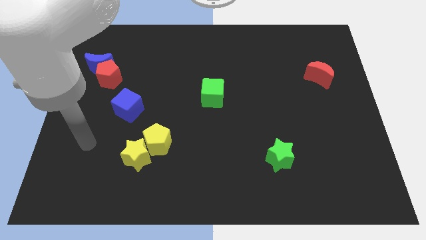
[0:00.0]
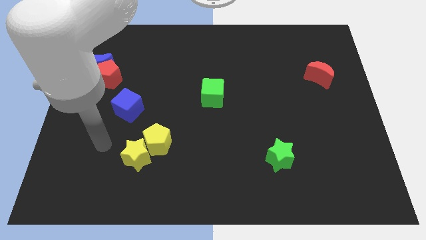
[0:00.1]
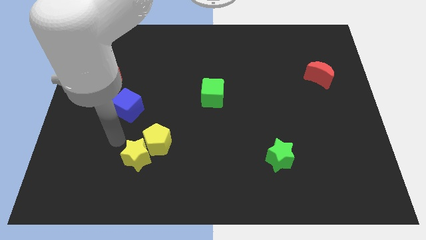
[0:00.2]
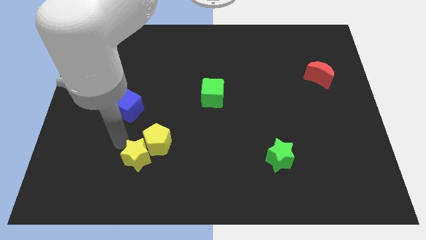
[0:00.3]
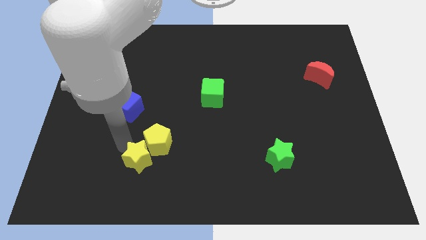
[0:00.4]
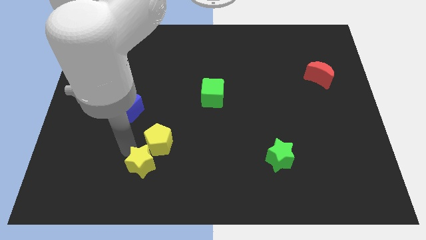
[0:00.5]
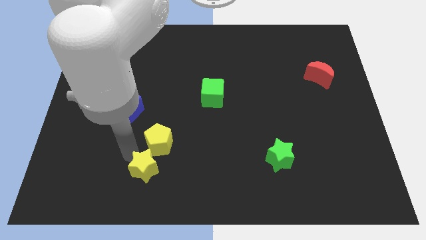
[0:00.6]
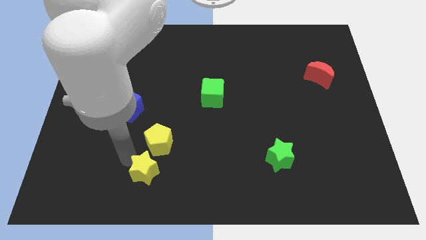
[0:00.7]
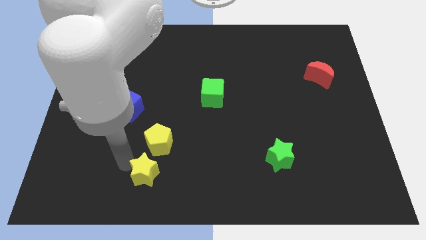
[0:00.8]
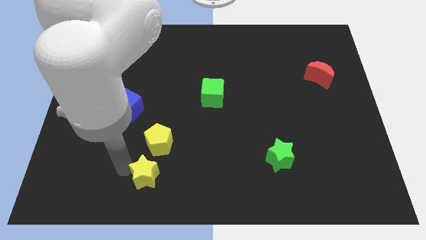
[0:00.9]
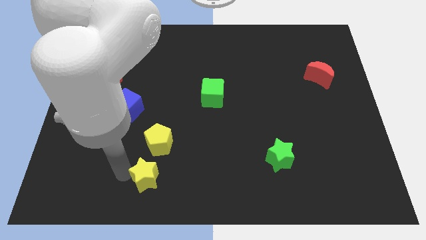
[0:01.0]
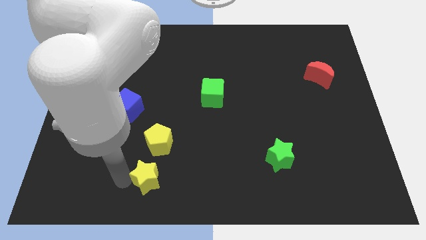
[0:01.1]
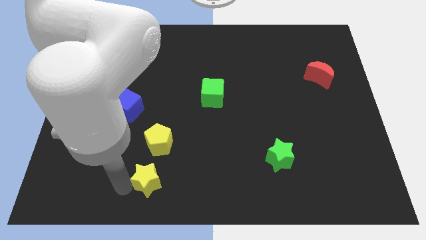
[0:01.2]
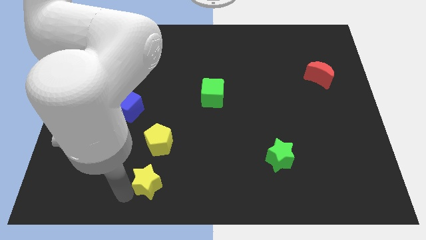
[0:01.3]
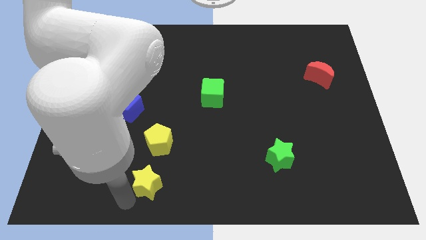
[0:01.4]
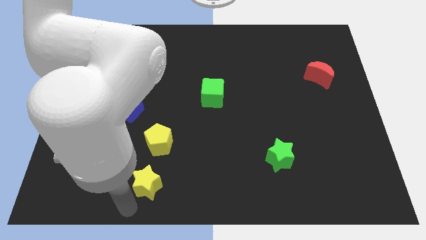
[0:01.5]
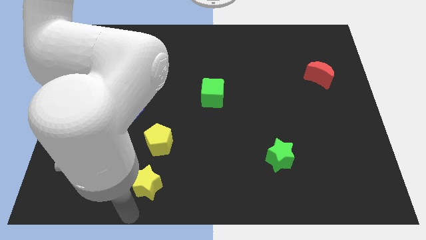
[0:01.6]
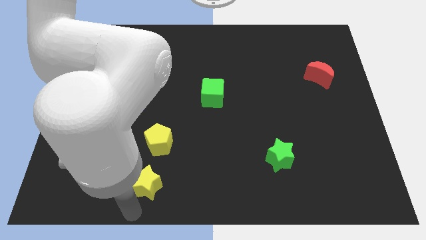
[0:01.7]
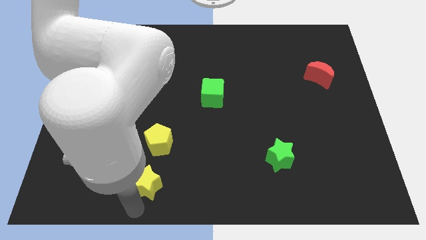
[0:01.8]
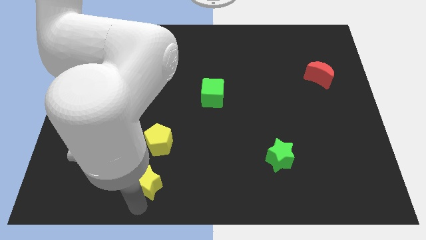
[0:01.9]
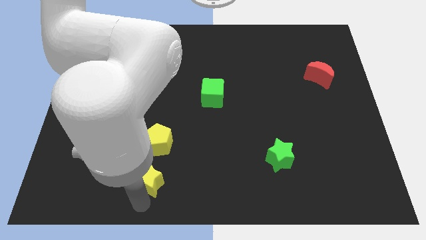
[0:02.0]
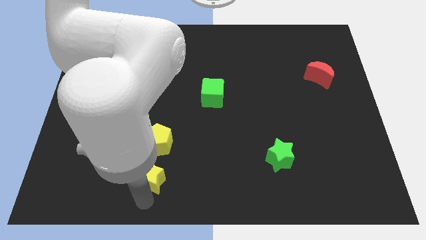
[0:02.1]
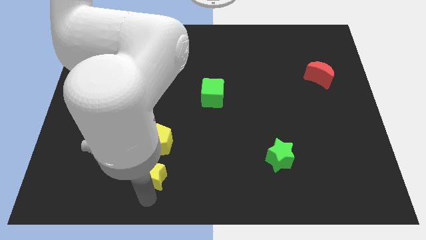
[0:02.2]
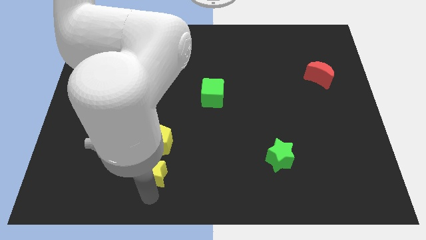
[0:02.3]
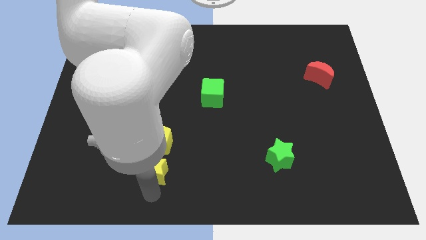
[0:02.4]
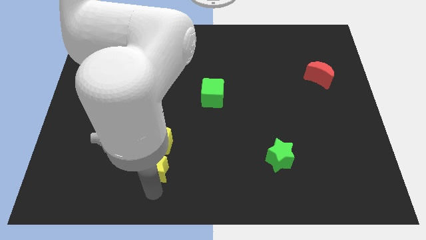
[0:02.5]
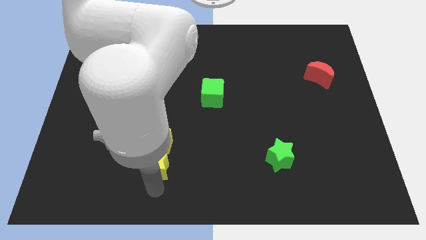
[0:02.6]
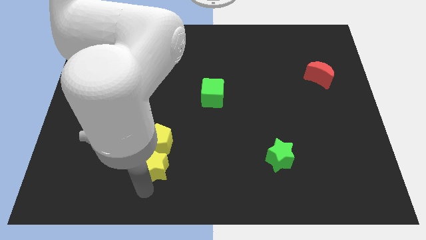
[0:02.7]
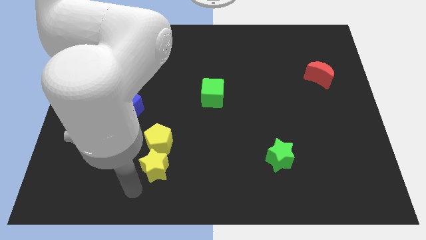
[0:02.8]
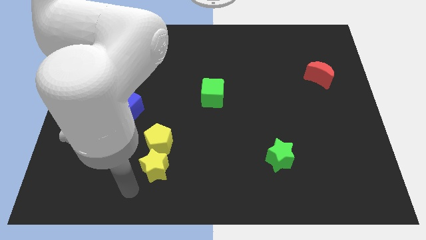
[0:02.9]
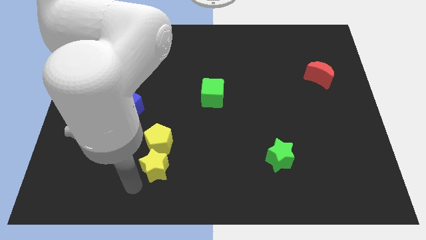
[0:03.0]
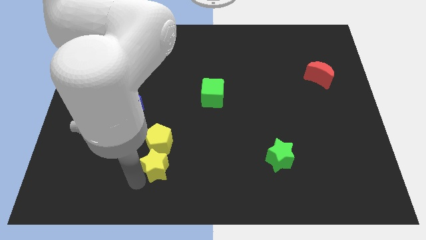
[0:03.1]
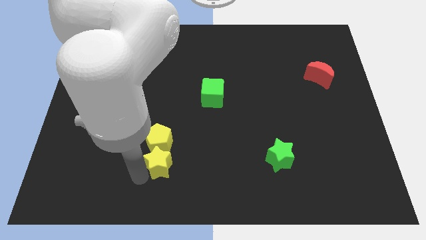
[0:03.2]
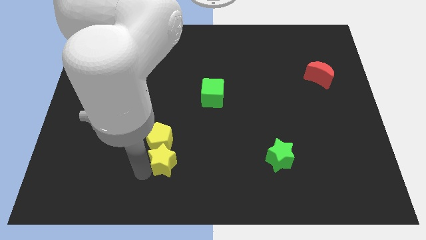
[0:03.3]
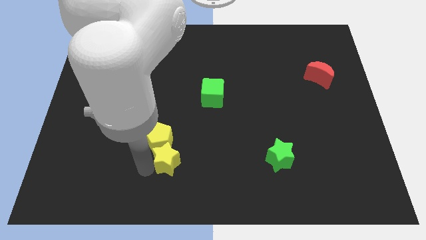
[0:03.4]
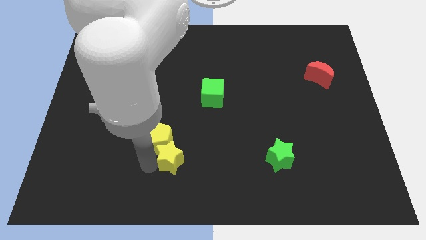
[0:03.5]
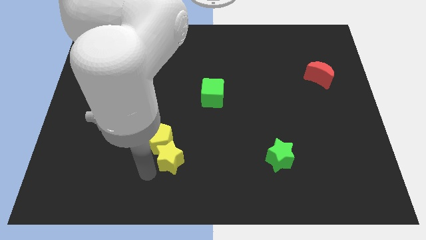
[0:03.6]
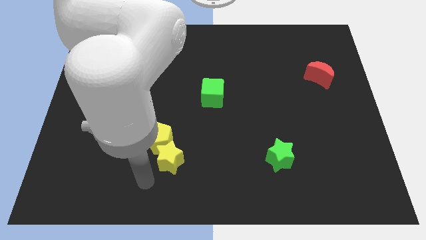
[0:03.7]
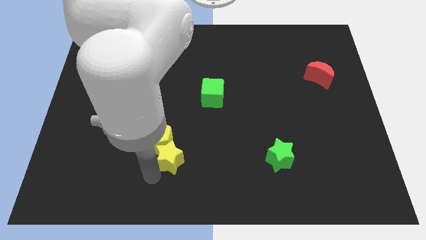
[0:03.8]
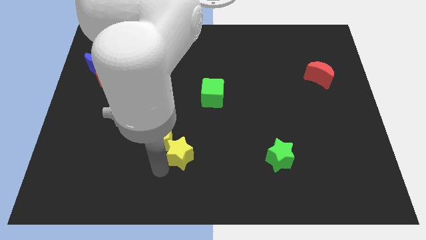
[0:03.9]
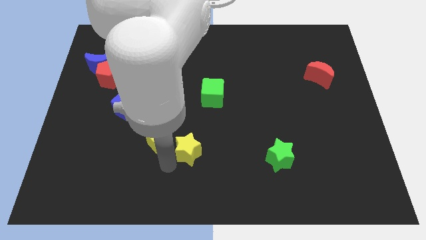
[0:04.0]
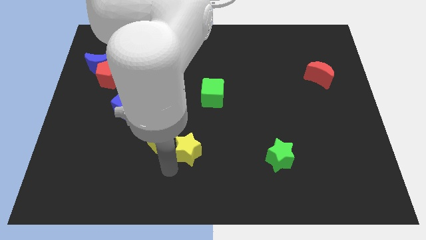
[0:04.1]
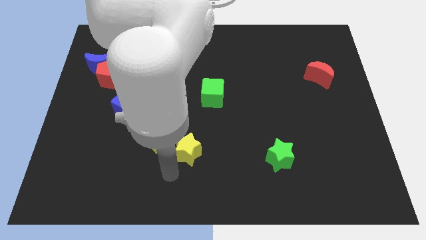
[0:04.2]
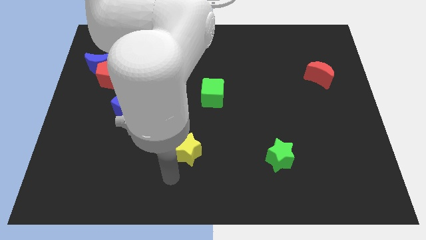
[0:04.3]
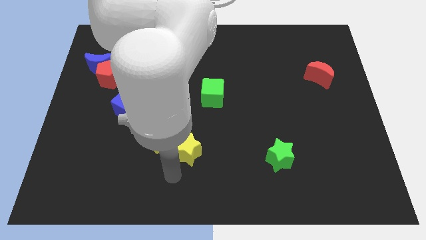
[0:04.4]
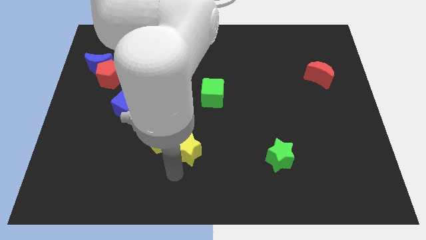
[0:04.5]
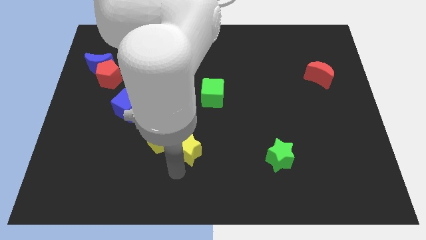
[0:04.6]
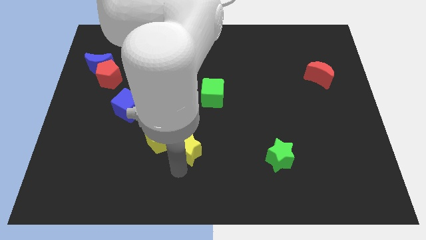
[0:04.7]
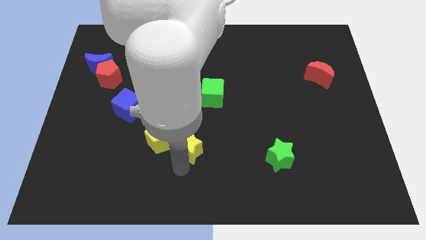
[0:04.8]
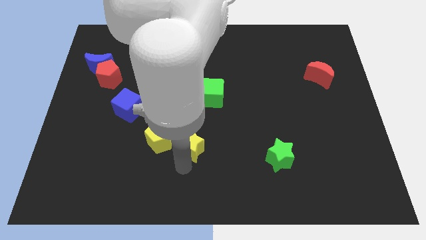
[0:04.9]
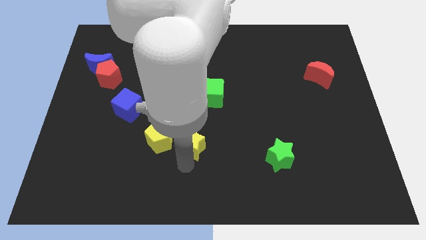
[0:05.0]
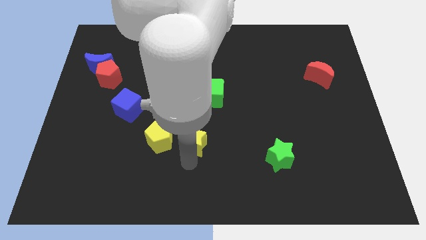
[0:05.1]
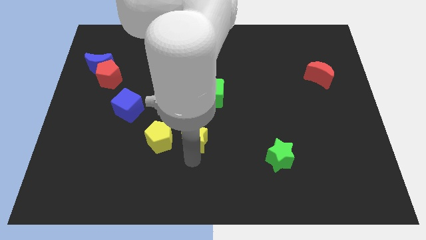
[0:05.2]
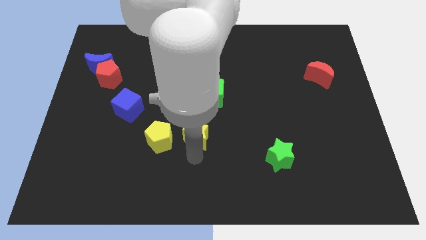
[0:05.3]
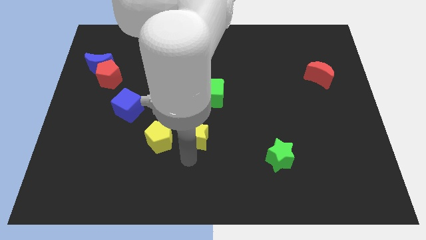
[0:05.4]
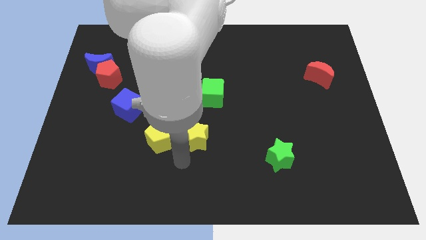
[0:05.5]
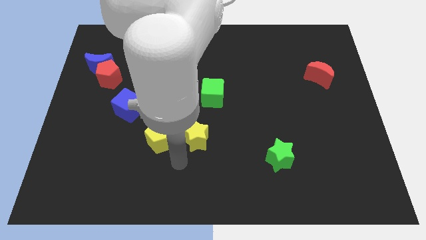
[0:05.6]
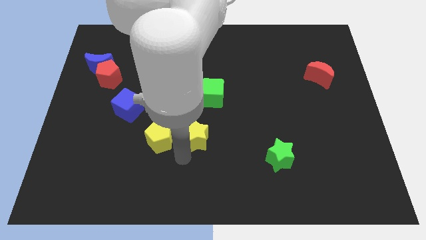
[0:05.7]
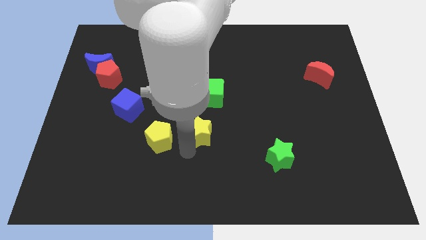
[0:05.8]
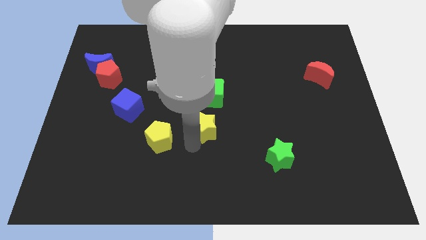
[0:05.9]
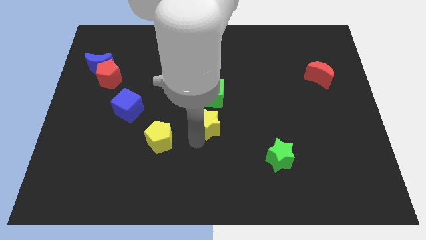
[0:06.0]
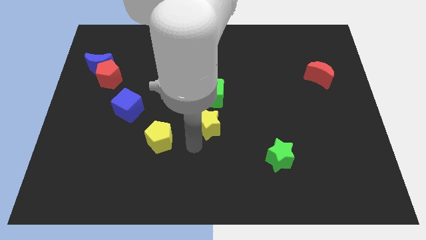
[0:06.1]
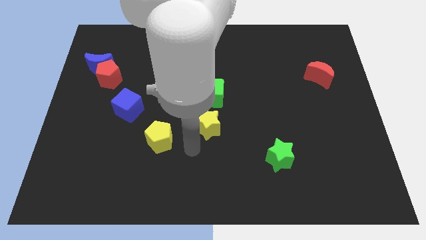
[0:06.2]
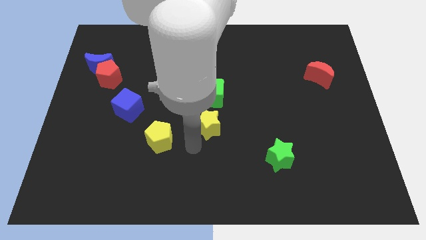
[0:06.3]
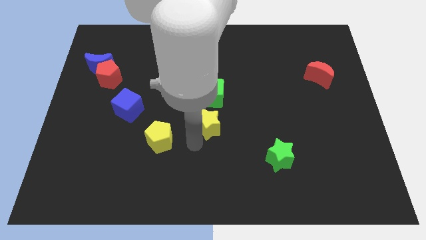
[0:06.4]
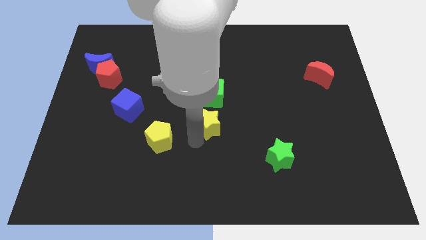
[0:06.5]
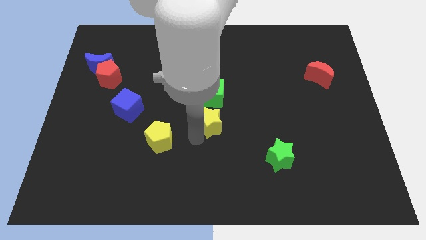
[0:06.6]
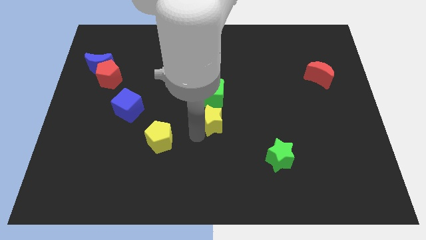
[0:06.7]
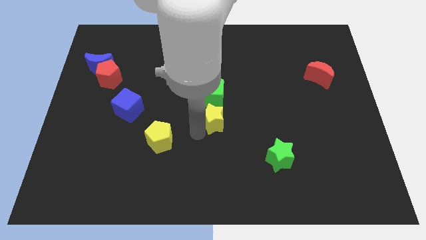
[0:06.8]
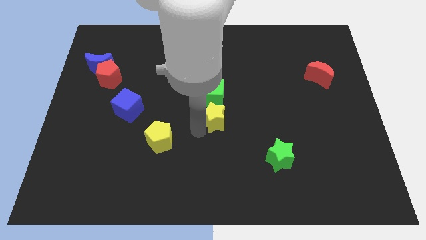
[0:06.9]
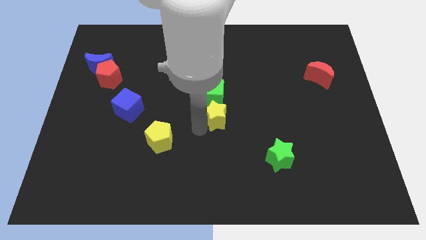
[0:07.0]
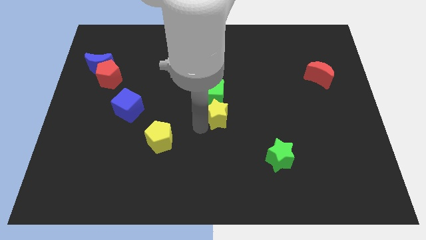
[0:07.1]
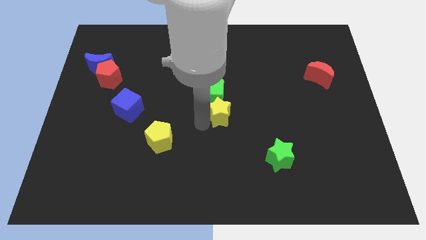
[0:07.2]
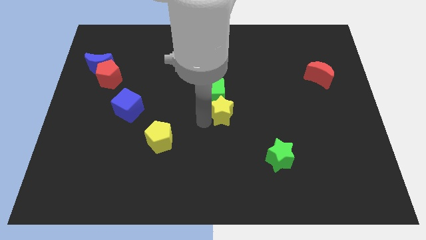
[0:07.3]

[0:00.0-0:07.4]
push the yellow star up and right diagonally

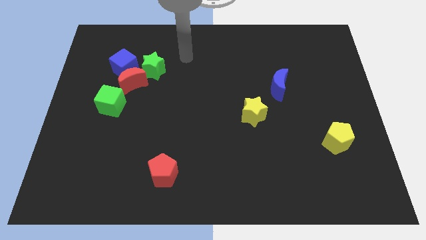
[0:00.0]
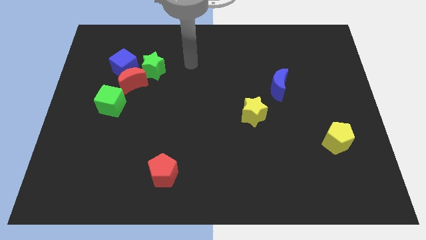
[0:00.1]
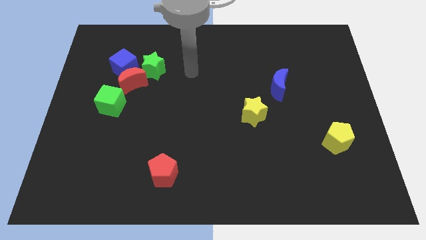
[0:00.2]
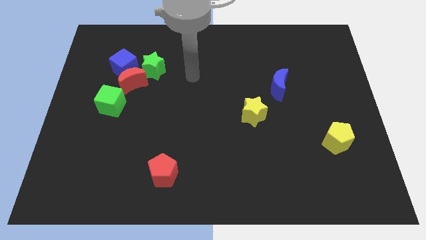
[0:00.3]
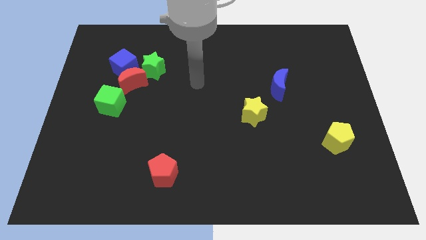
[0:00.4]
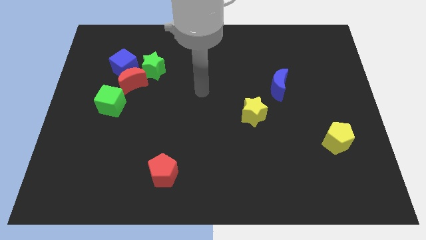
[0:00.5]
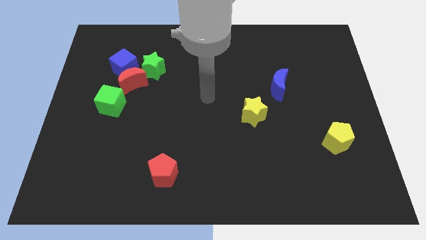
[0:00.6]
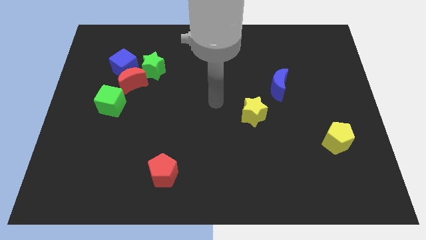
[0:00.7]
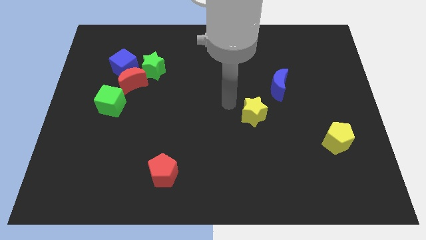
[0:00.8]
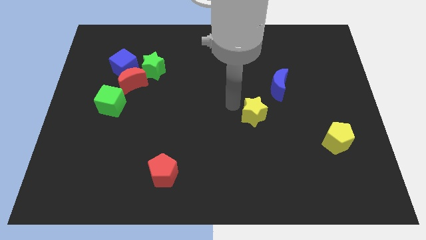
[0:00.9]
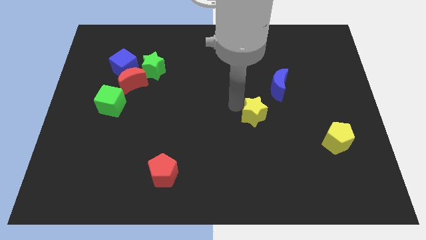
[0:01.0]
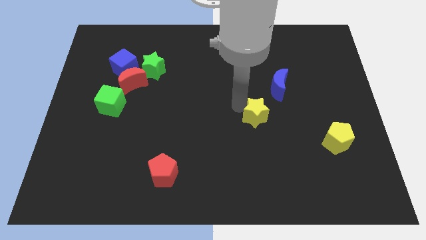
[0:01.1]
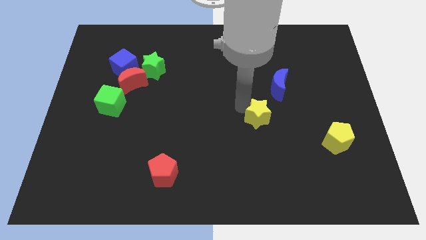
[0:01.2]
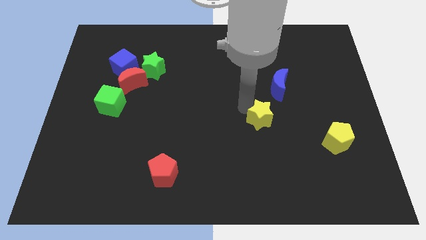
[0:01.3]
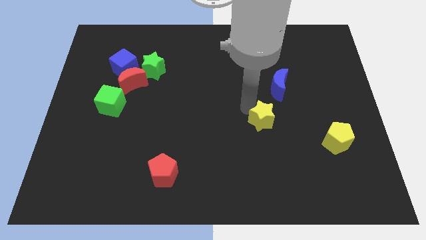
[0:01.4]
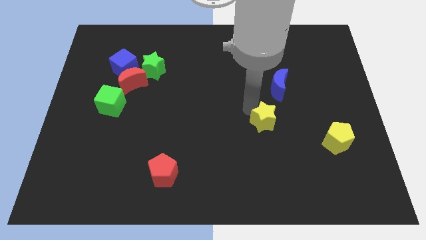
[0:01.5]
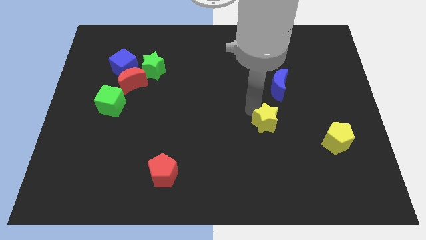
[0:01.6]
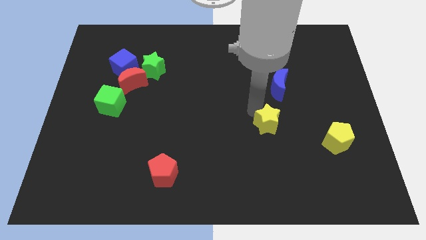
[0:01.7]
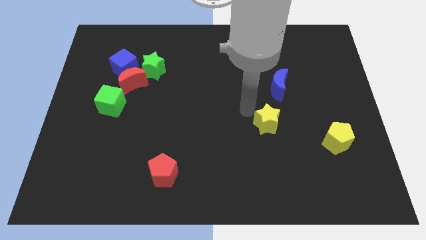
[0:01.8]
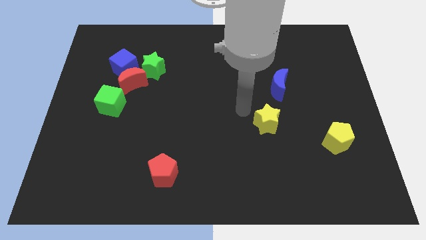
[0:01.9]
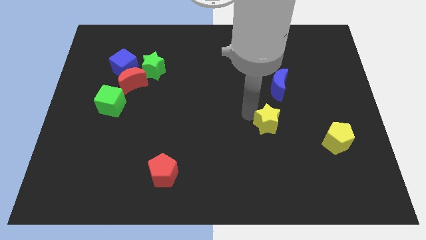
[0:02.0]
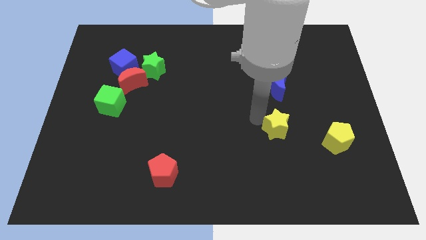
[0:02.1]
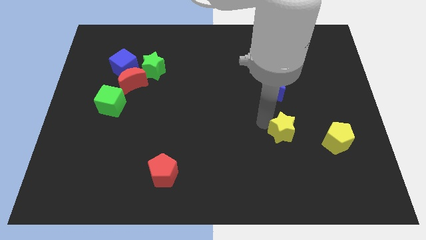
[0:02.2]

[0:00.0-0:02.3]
push the yellow star a bit down and to the right diagonally
